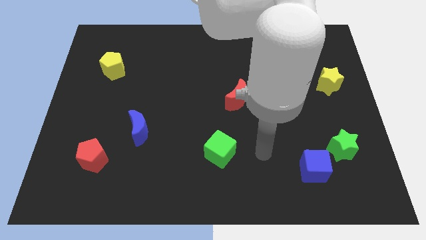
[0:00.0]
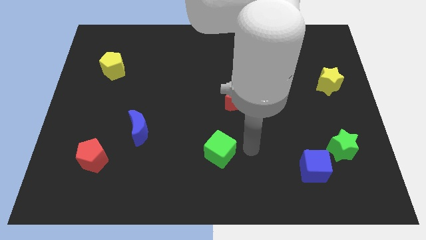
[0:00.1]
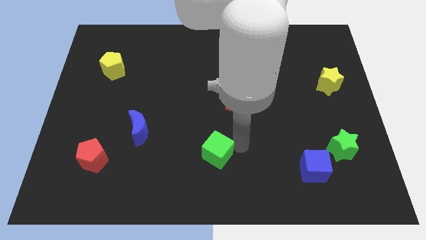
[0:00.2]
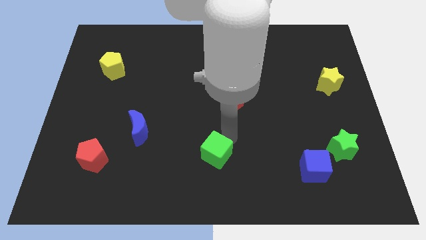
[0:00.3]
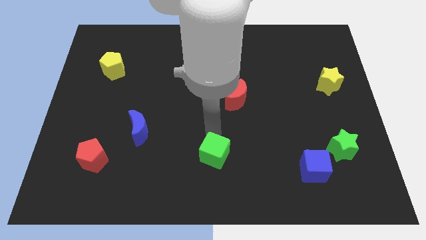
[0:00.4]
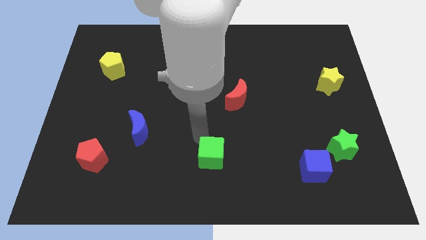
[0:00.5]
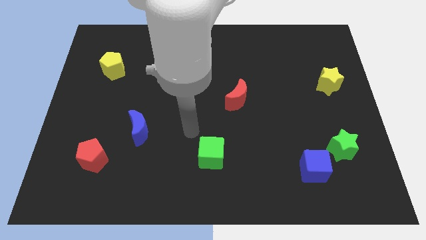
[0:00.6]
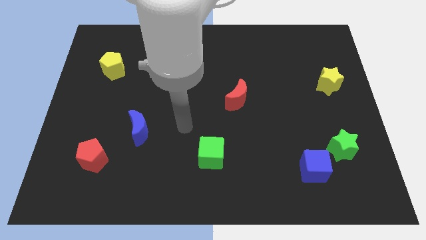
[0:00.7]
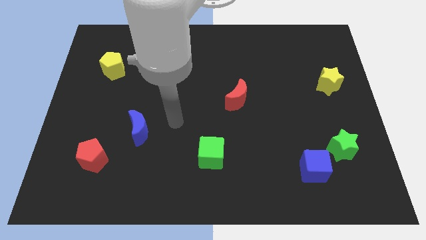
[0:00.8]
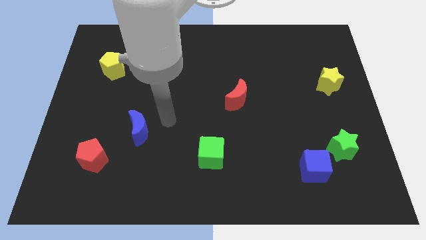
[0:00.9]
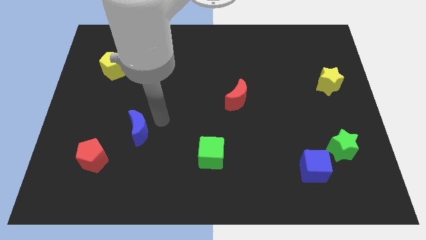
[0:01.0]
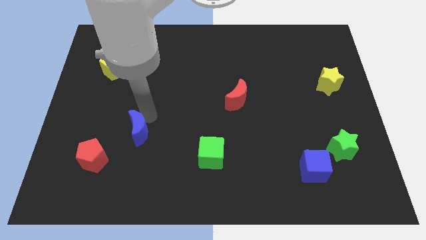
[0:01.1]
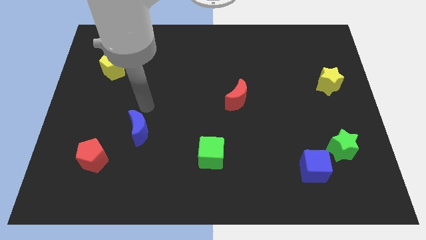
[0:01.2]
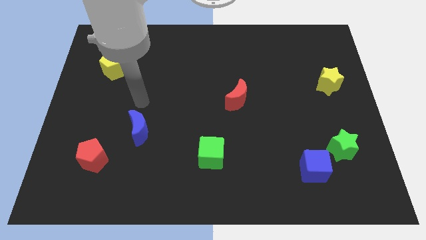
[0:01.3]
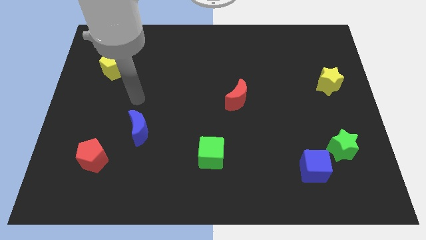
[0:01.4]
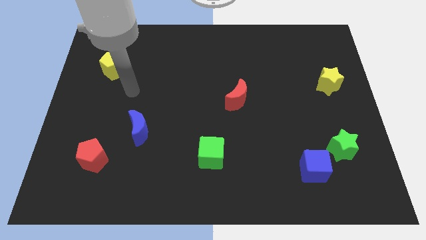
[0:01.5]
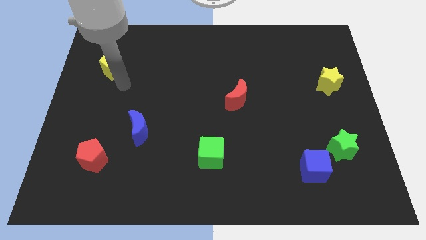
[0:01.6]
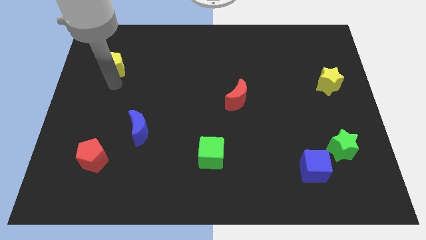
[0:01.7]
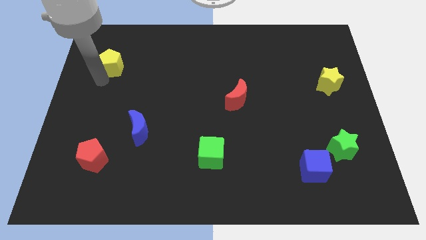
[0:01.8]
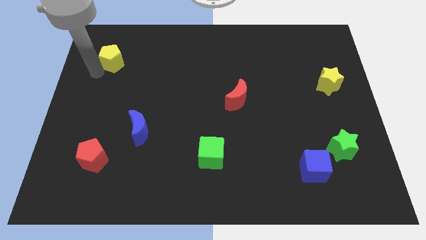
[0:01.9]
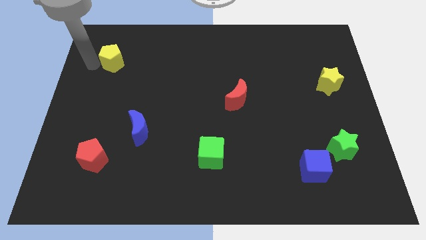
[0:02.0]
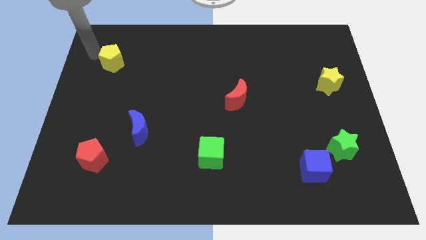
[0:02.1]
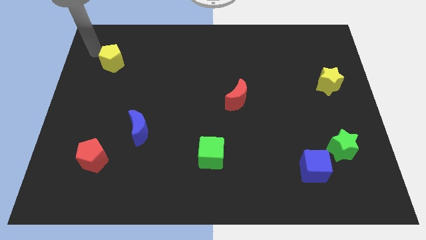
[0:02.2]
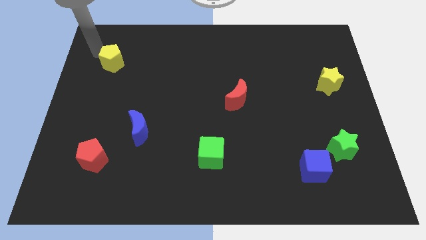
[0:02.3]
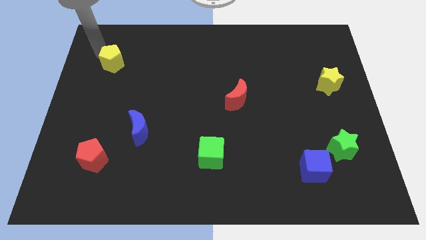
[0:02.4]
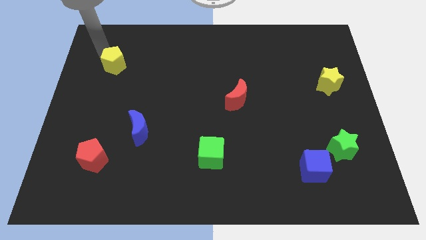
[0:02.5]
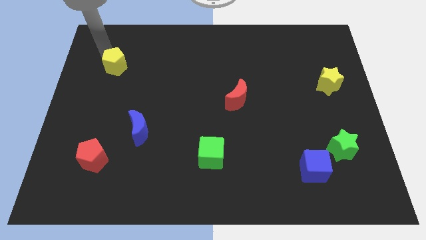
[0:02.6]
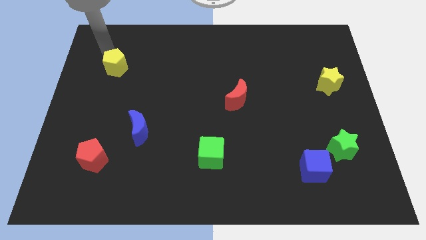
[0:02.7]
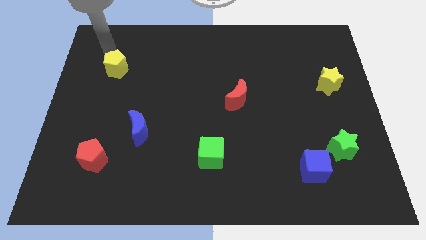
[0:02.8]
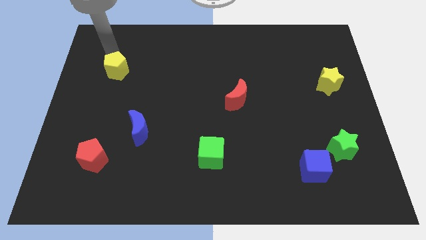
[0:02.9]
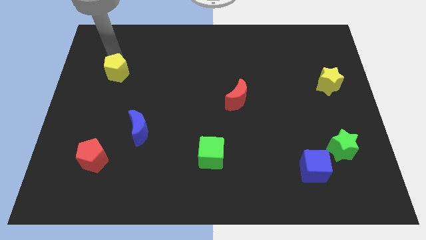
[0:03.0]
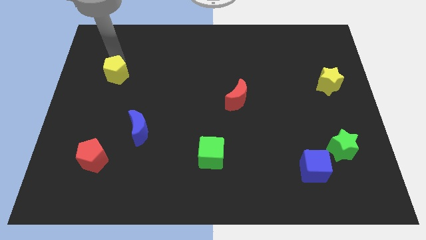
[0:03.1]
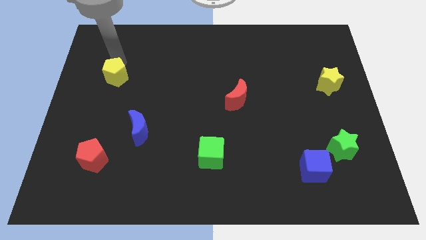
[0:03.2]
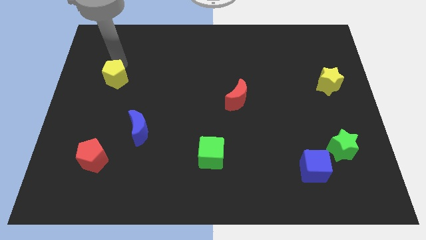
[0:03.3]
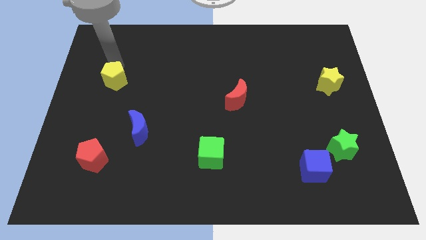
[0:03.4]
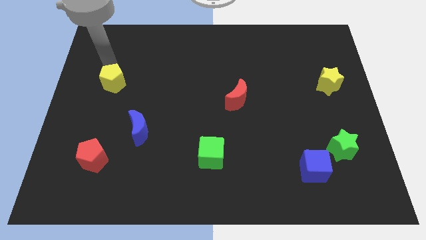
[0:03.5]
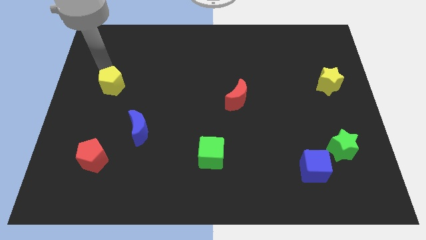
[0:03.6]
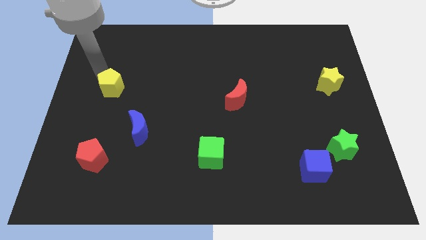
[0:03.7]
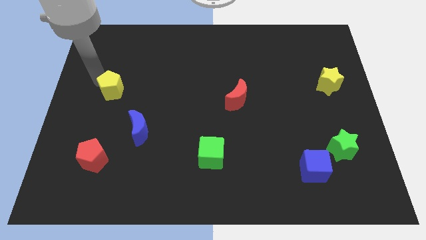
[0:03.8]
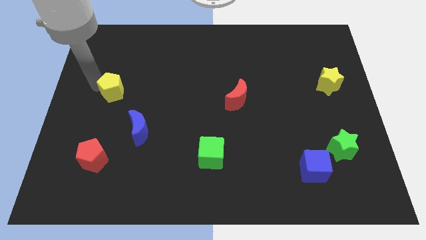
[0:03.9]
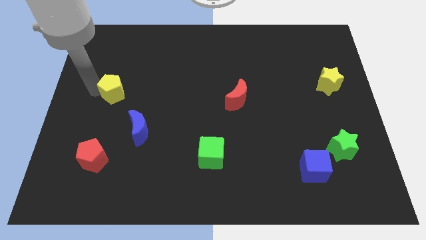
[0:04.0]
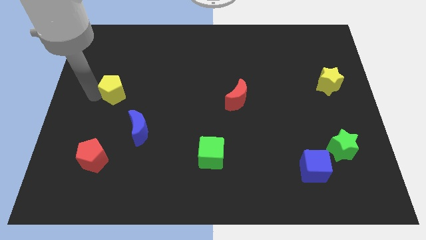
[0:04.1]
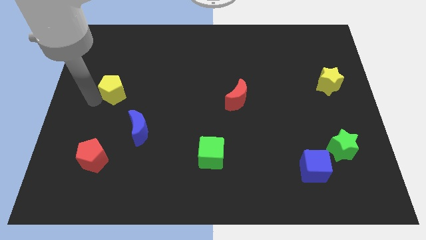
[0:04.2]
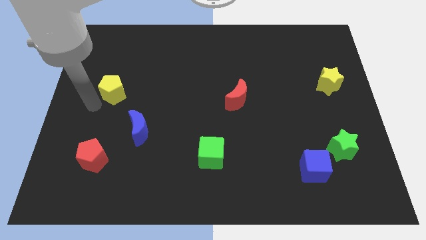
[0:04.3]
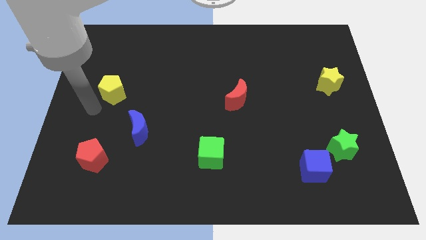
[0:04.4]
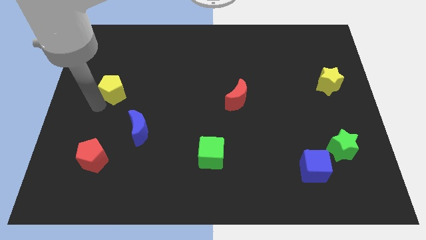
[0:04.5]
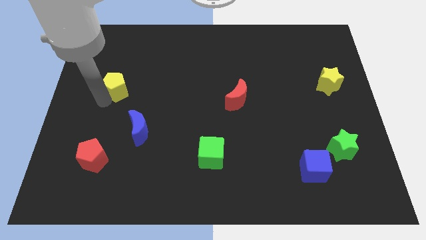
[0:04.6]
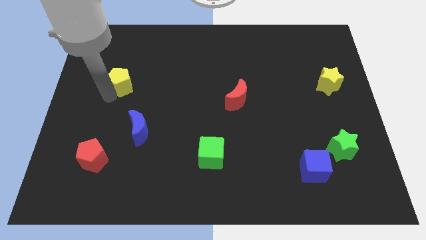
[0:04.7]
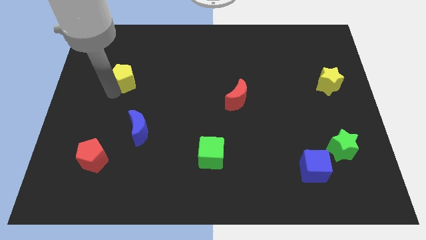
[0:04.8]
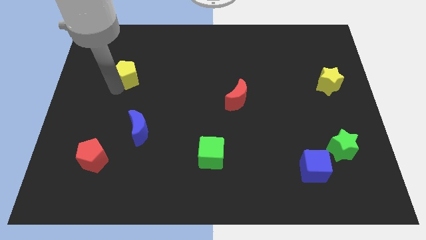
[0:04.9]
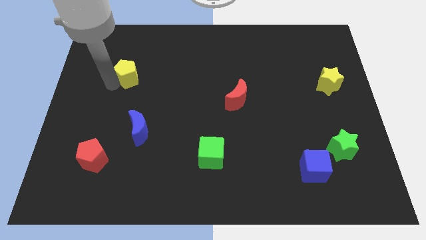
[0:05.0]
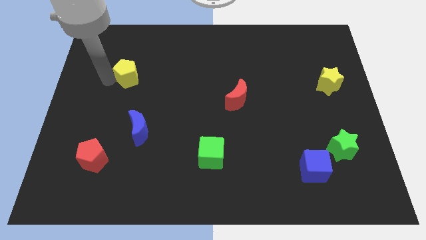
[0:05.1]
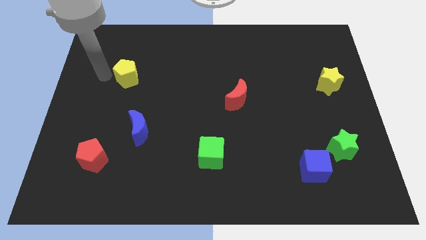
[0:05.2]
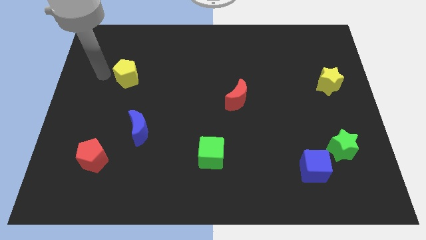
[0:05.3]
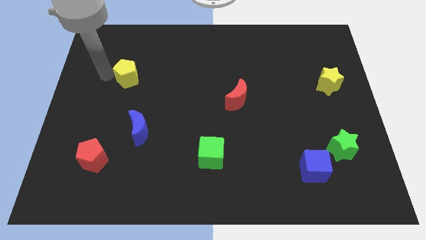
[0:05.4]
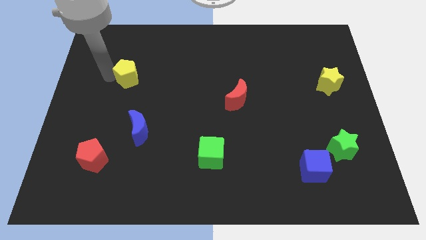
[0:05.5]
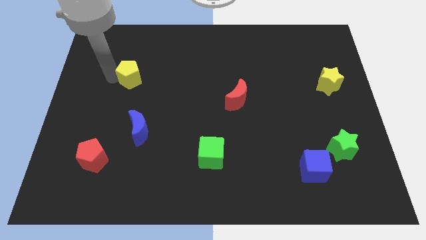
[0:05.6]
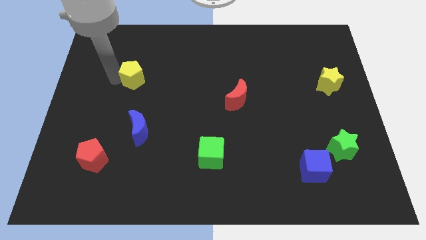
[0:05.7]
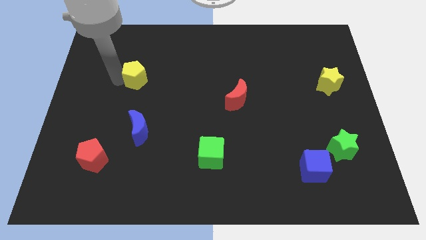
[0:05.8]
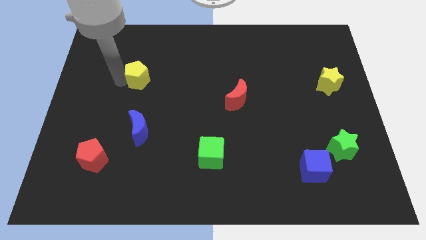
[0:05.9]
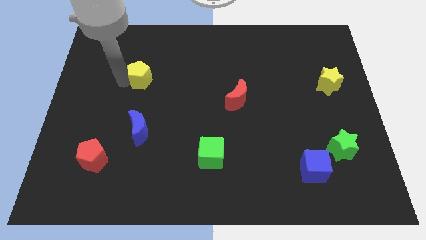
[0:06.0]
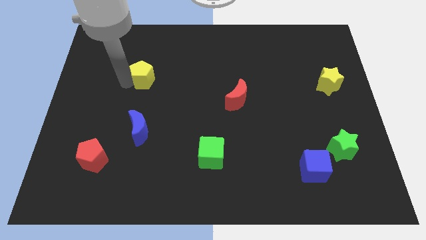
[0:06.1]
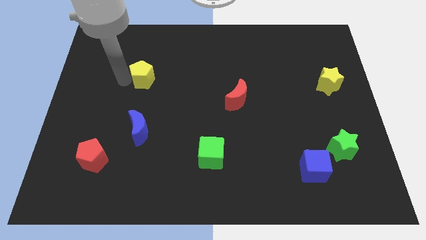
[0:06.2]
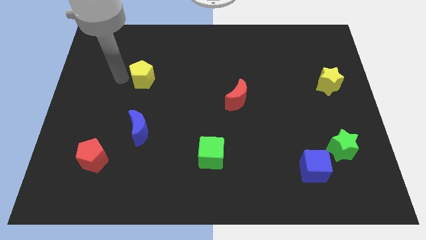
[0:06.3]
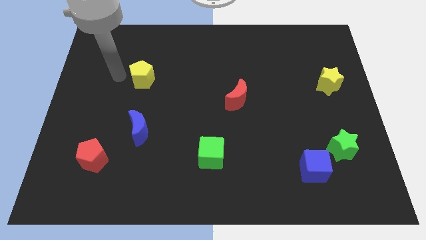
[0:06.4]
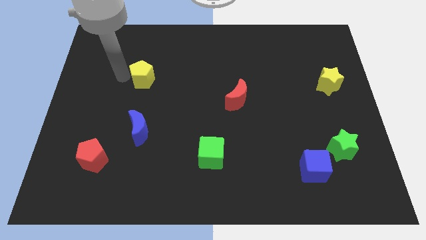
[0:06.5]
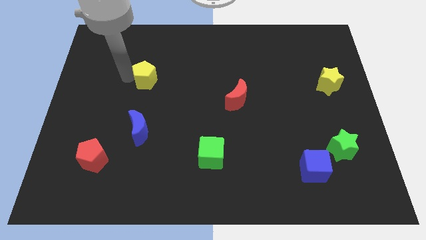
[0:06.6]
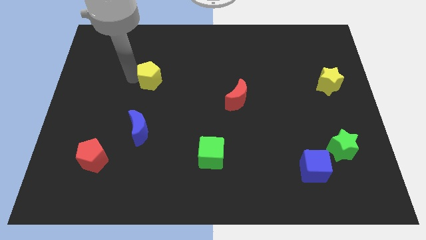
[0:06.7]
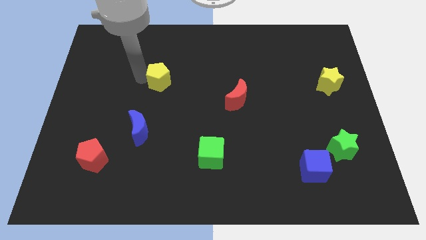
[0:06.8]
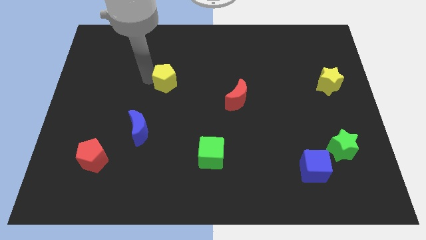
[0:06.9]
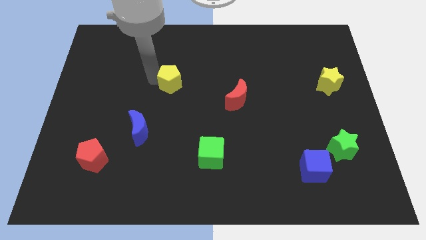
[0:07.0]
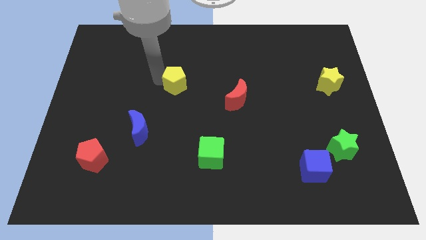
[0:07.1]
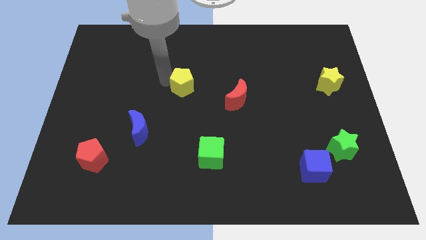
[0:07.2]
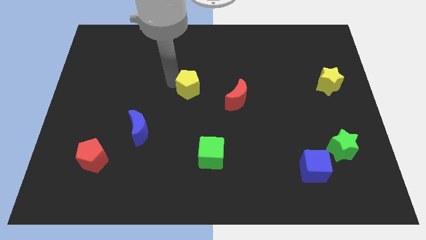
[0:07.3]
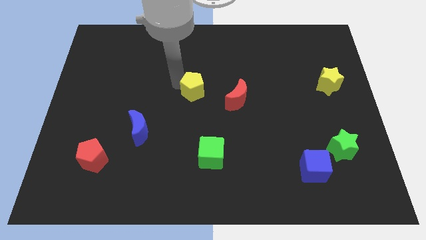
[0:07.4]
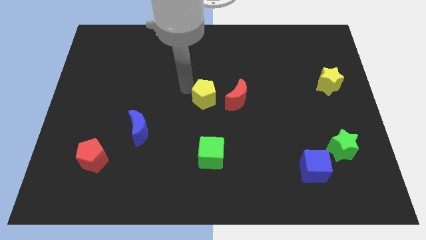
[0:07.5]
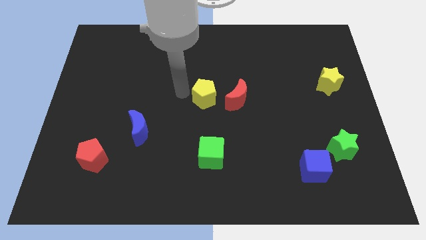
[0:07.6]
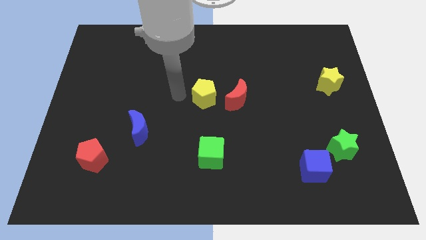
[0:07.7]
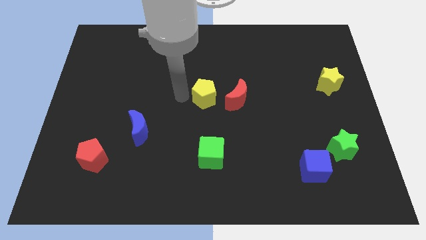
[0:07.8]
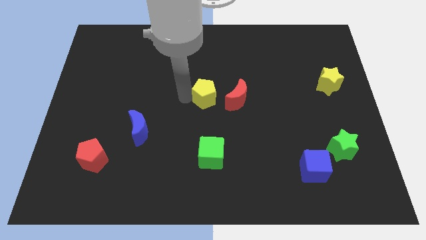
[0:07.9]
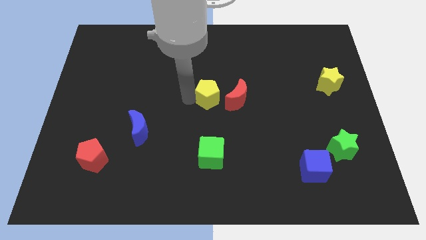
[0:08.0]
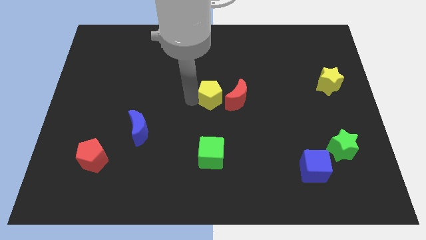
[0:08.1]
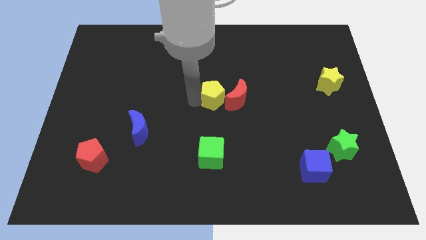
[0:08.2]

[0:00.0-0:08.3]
put the yellow pentagon to the red moon
